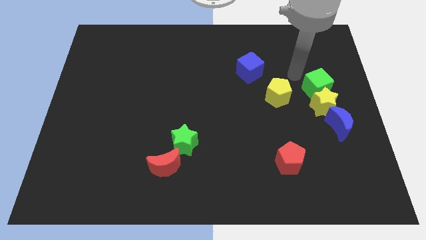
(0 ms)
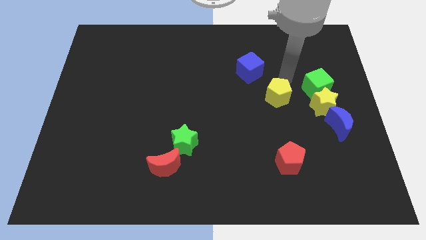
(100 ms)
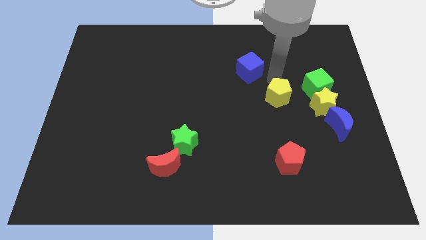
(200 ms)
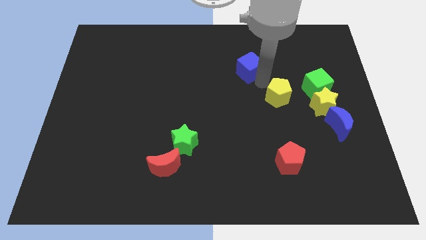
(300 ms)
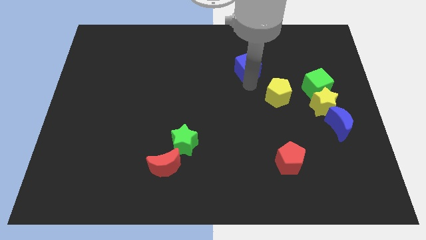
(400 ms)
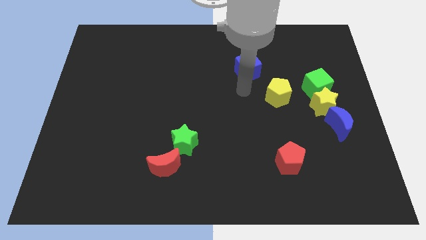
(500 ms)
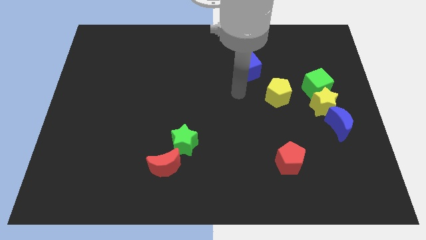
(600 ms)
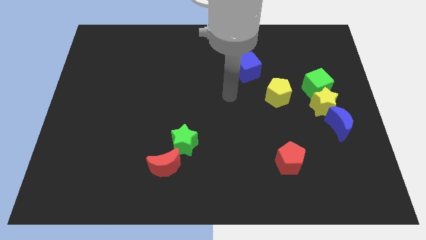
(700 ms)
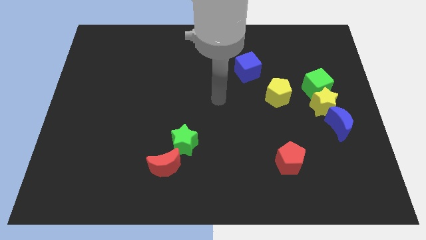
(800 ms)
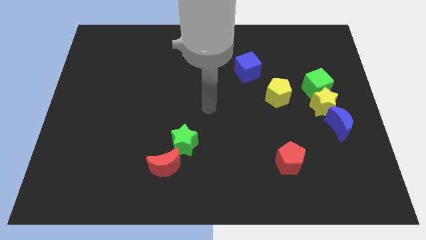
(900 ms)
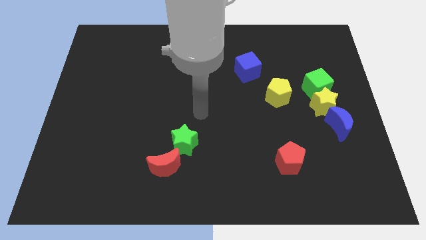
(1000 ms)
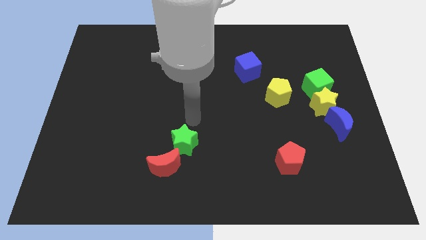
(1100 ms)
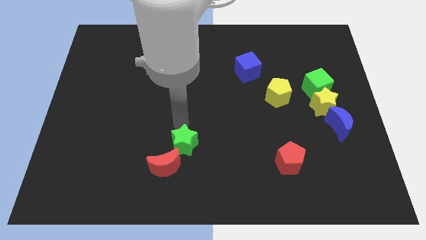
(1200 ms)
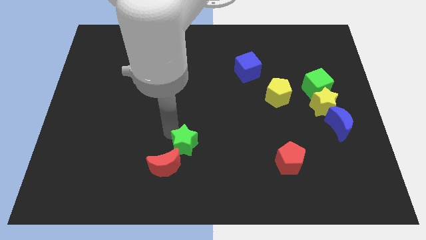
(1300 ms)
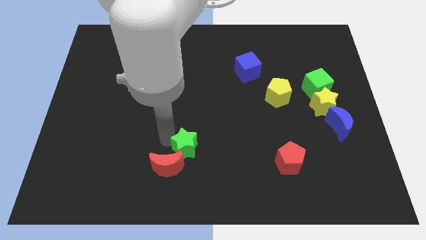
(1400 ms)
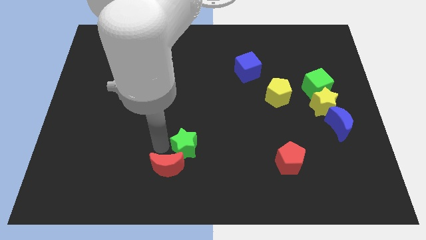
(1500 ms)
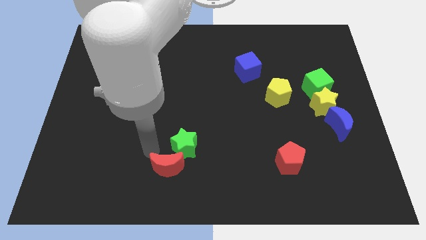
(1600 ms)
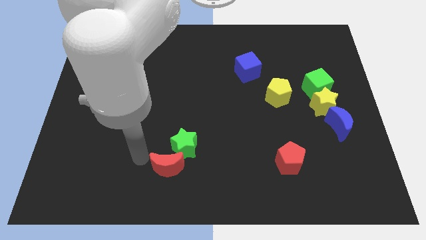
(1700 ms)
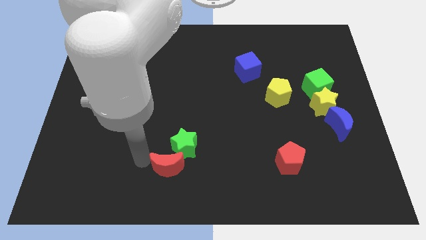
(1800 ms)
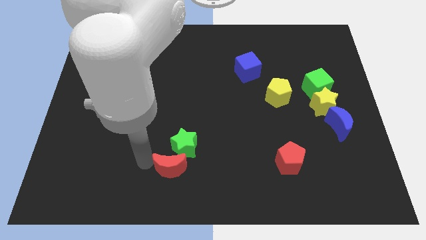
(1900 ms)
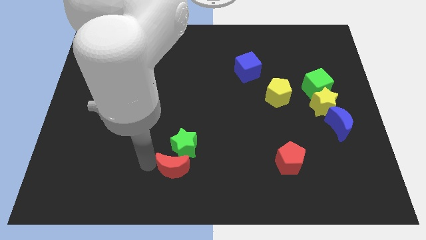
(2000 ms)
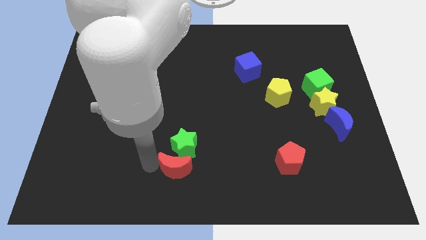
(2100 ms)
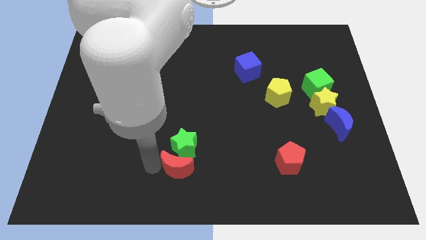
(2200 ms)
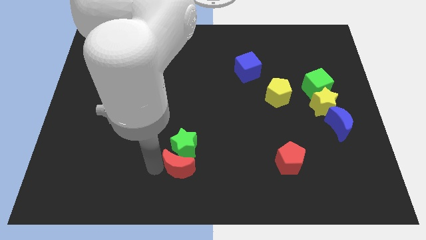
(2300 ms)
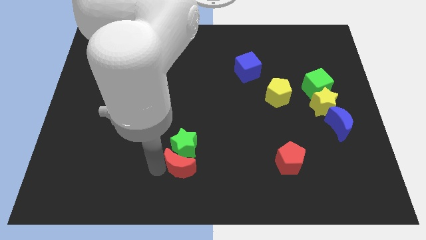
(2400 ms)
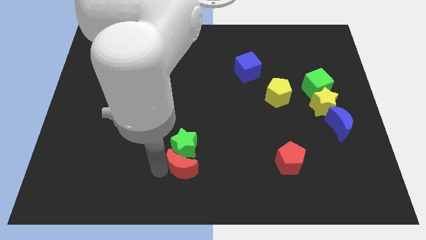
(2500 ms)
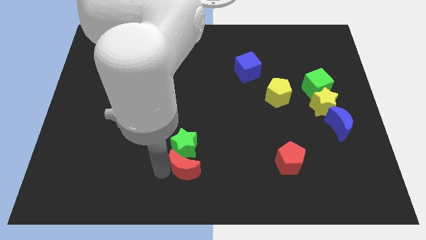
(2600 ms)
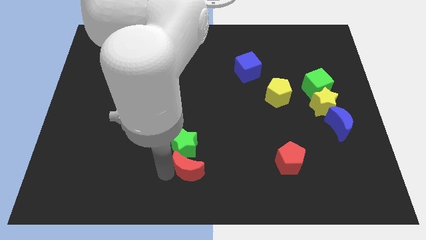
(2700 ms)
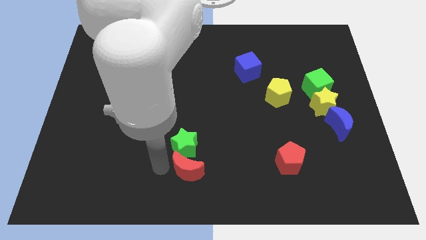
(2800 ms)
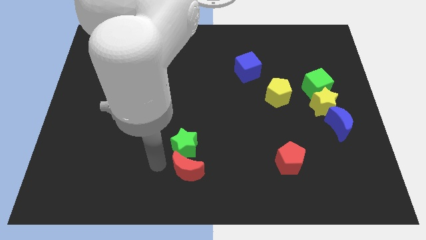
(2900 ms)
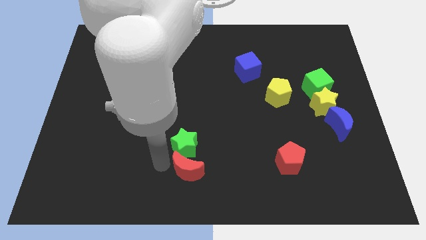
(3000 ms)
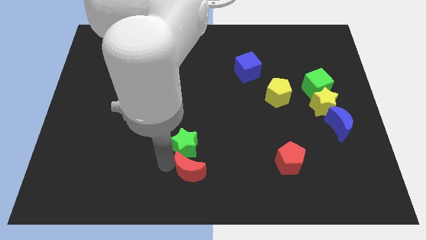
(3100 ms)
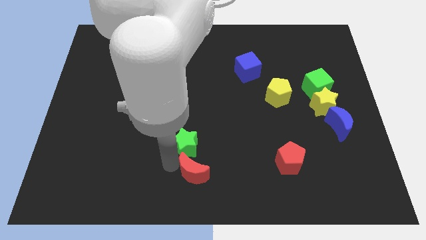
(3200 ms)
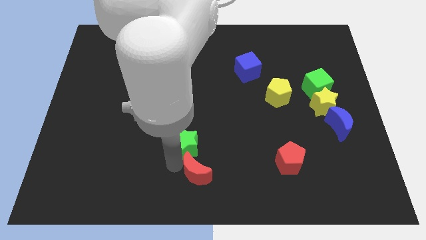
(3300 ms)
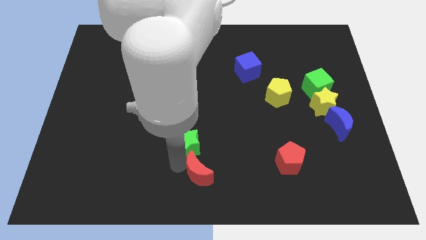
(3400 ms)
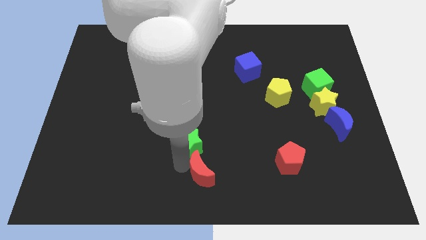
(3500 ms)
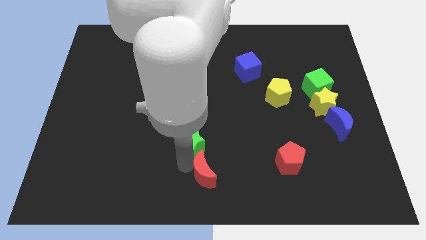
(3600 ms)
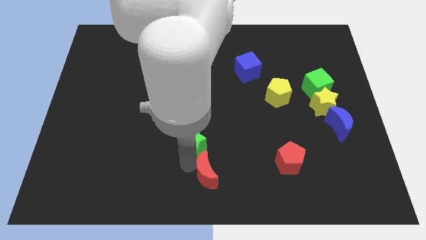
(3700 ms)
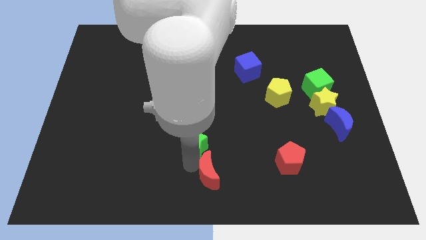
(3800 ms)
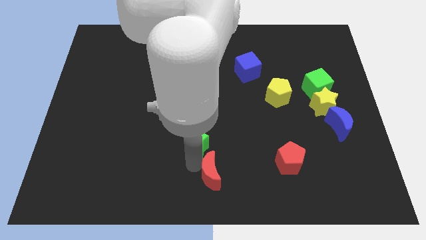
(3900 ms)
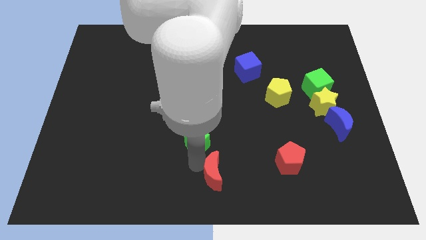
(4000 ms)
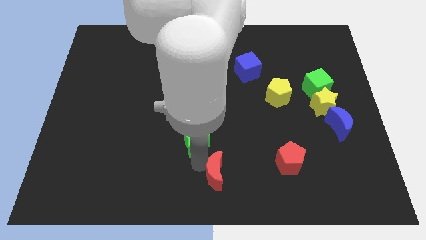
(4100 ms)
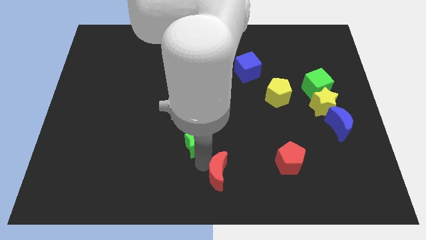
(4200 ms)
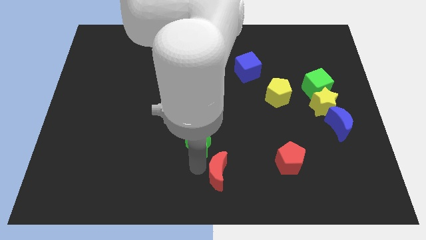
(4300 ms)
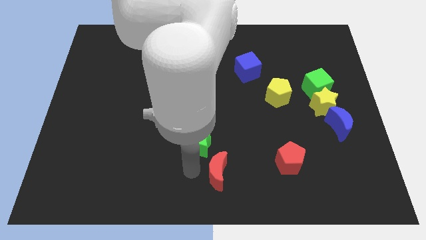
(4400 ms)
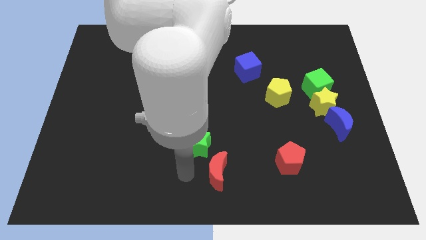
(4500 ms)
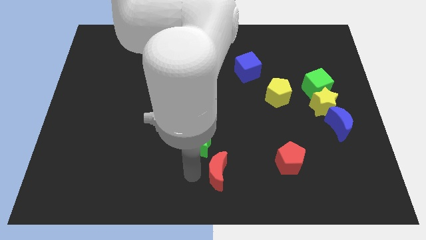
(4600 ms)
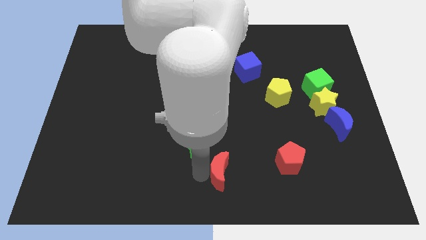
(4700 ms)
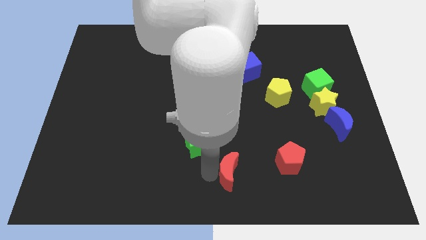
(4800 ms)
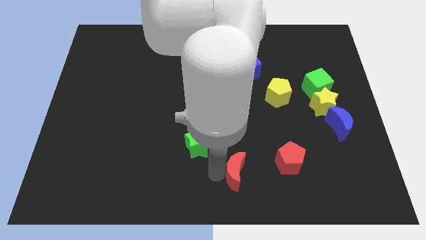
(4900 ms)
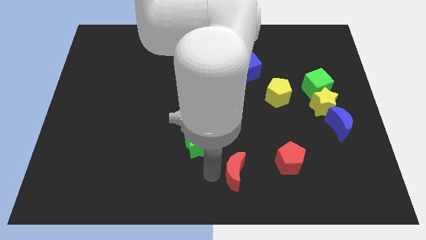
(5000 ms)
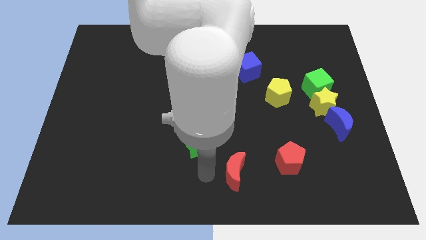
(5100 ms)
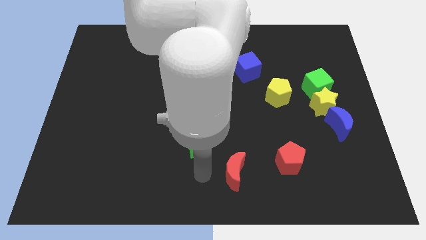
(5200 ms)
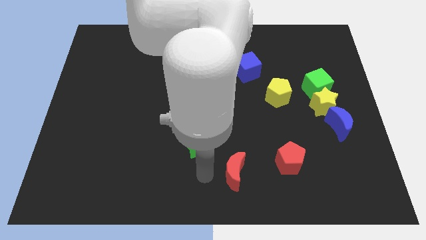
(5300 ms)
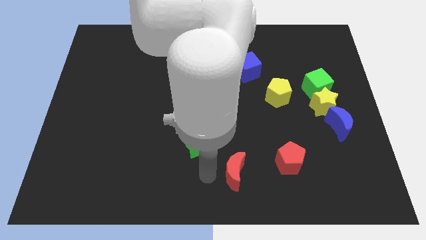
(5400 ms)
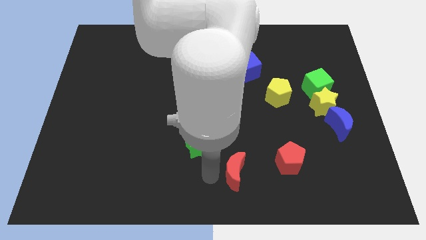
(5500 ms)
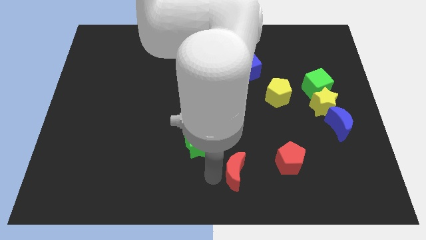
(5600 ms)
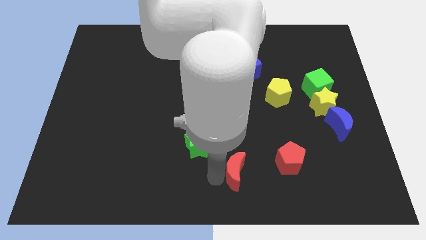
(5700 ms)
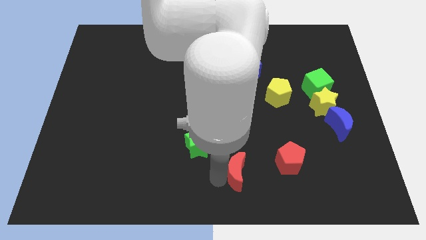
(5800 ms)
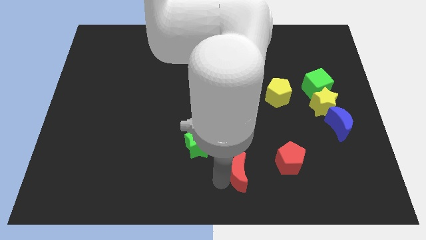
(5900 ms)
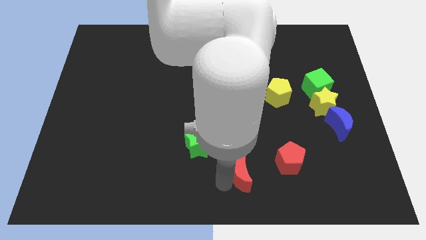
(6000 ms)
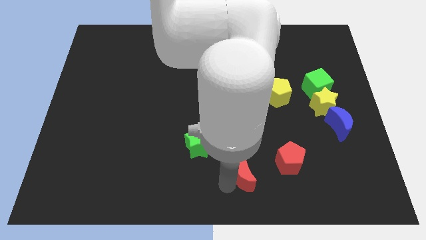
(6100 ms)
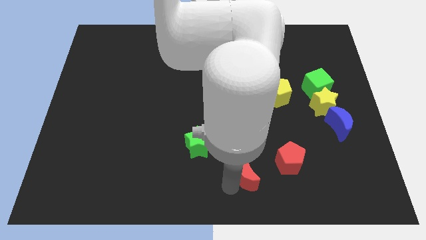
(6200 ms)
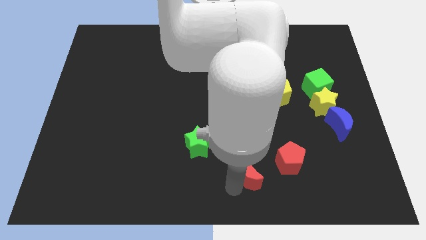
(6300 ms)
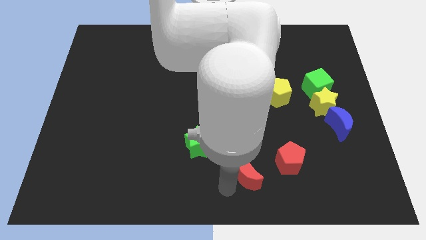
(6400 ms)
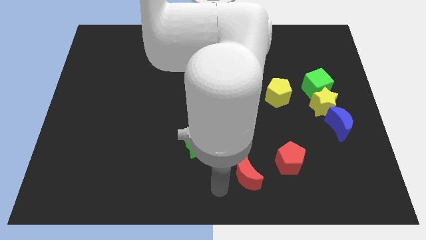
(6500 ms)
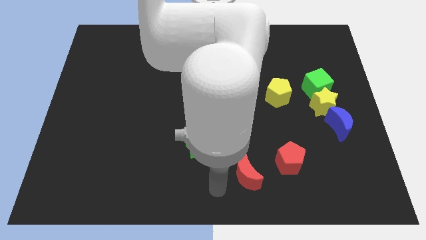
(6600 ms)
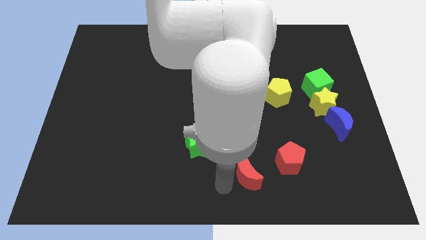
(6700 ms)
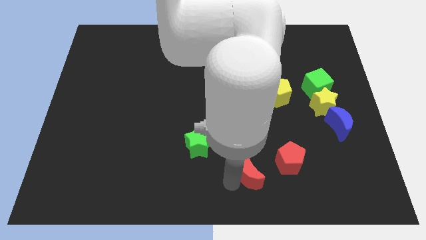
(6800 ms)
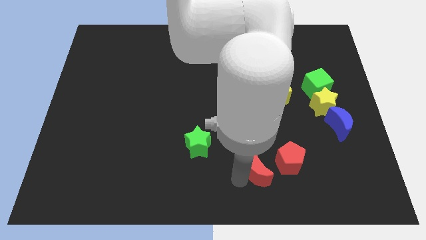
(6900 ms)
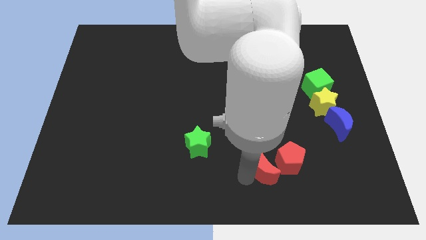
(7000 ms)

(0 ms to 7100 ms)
put the red moon to the red pentagon
